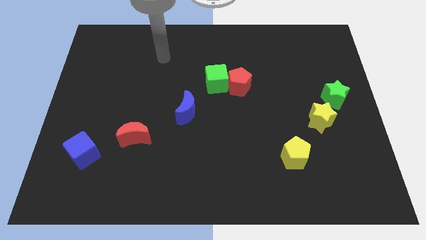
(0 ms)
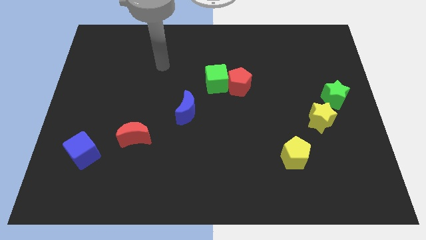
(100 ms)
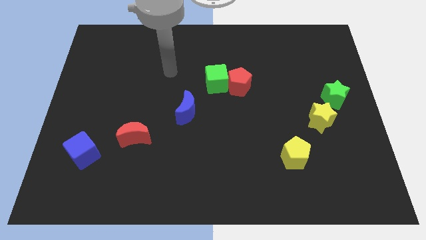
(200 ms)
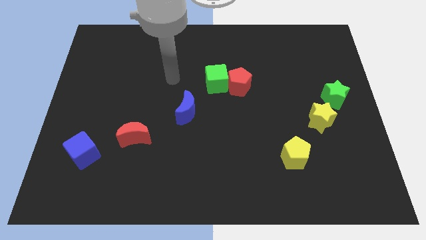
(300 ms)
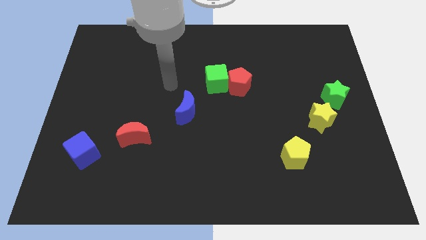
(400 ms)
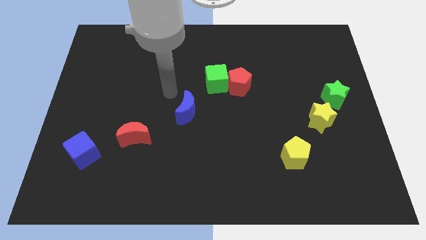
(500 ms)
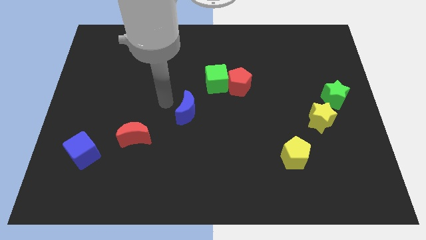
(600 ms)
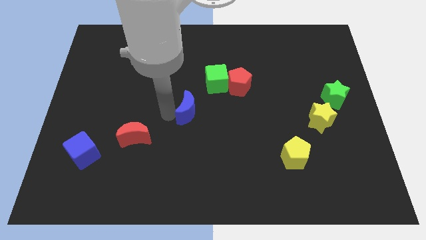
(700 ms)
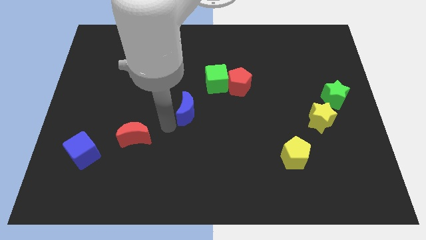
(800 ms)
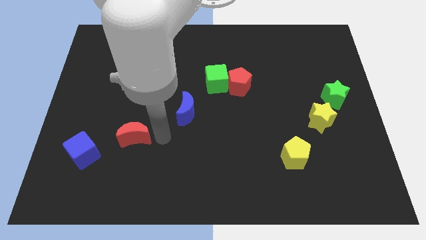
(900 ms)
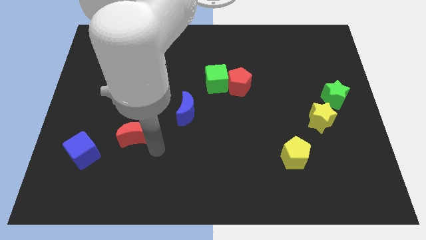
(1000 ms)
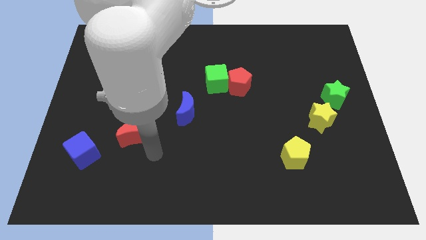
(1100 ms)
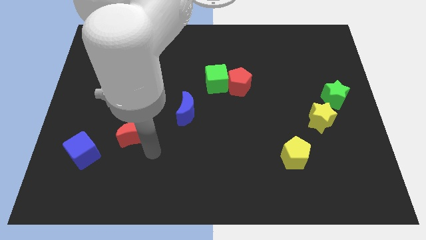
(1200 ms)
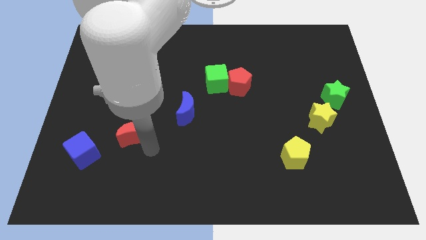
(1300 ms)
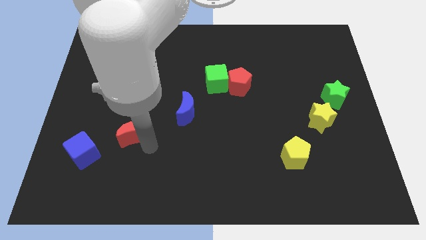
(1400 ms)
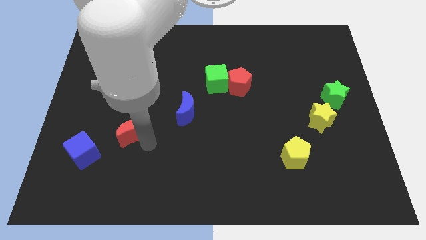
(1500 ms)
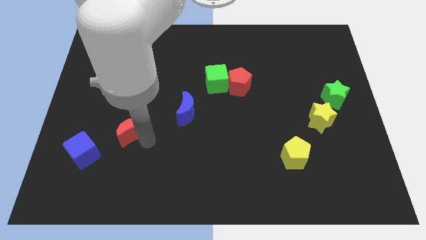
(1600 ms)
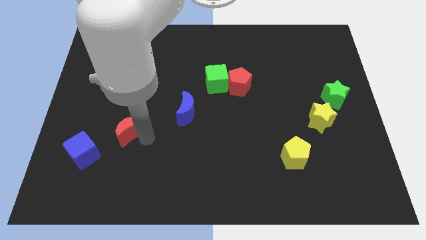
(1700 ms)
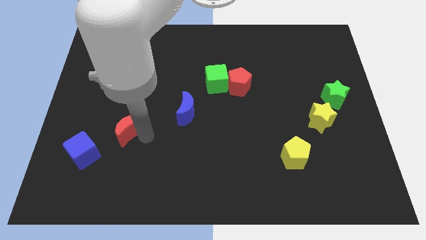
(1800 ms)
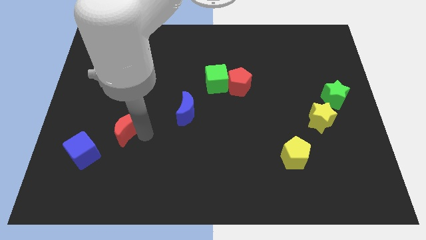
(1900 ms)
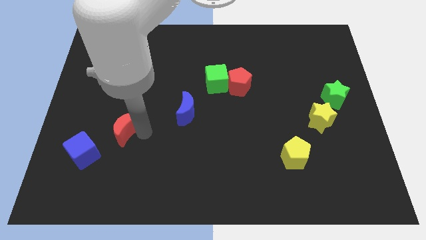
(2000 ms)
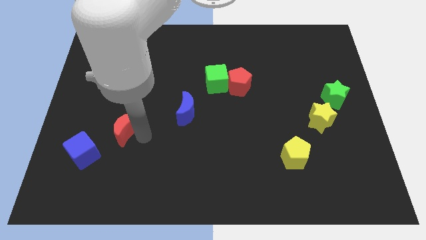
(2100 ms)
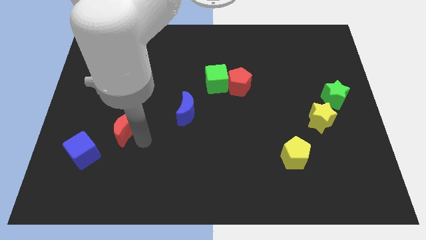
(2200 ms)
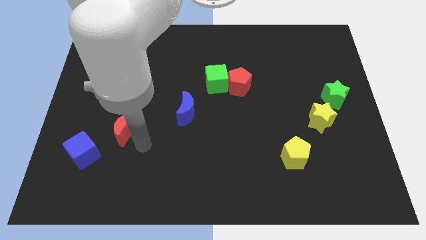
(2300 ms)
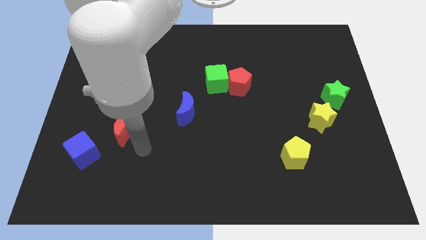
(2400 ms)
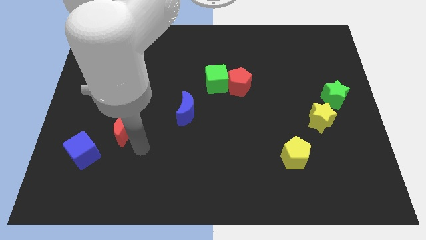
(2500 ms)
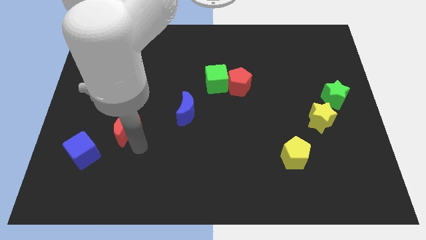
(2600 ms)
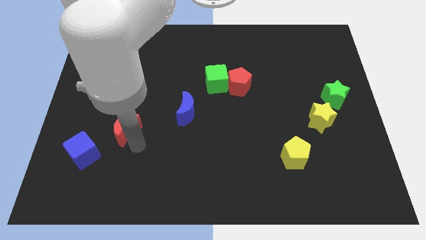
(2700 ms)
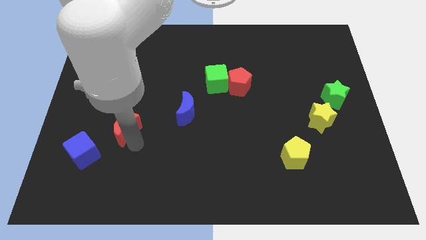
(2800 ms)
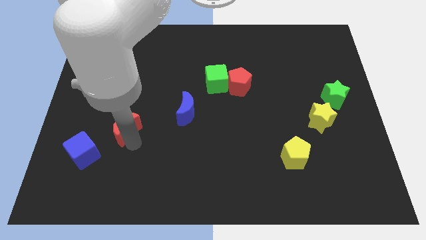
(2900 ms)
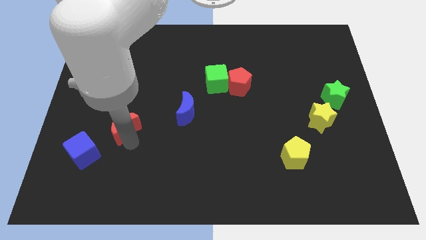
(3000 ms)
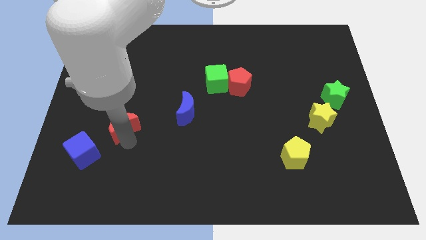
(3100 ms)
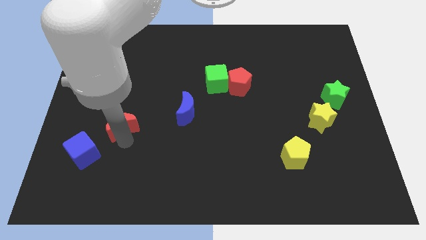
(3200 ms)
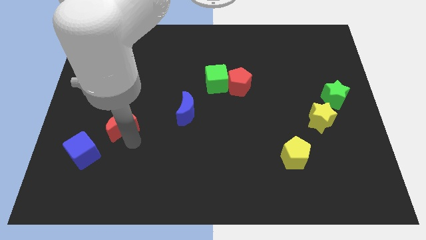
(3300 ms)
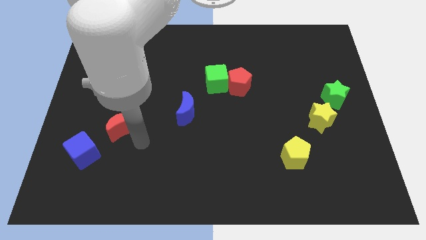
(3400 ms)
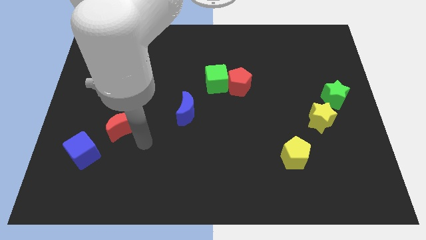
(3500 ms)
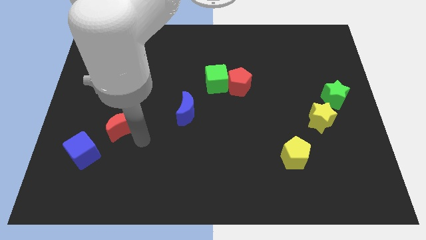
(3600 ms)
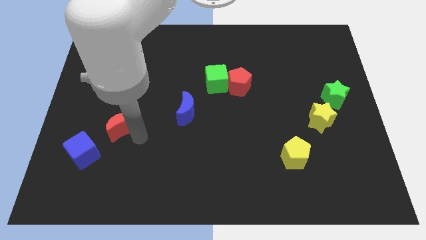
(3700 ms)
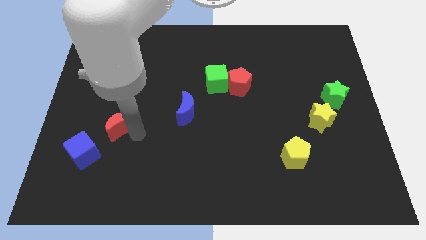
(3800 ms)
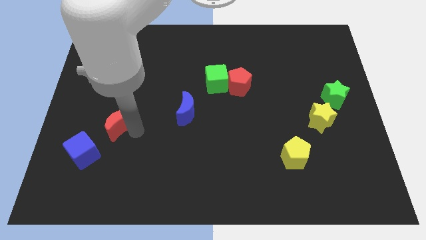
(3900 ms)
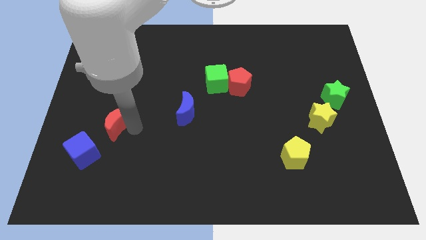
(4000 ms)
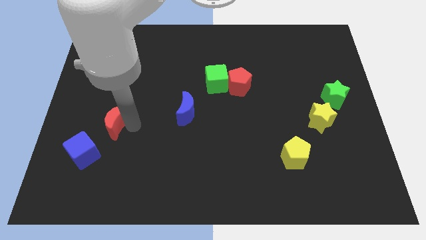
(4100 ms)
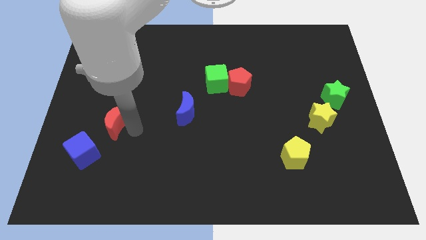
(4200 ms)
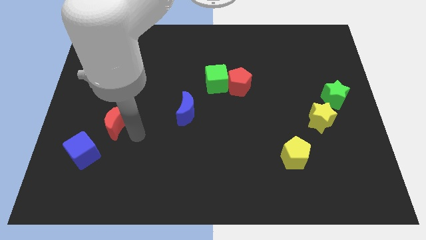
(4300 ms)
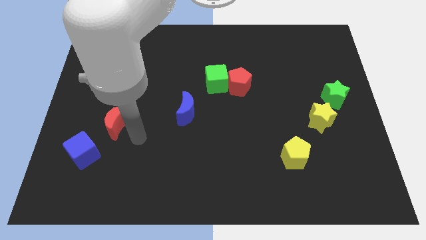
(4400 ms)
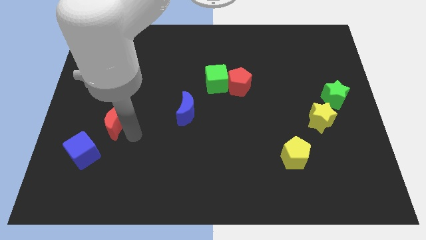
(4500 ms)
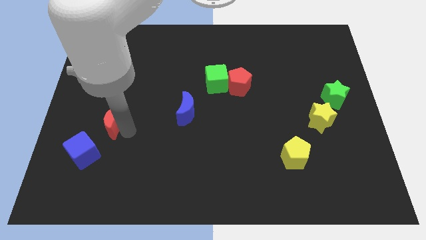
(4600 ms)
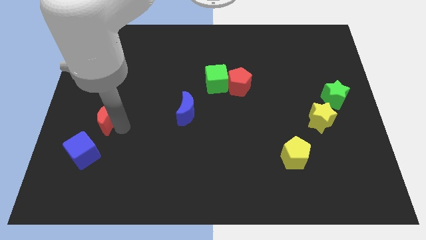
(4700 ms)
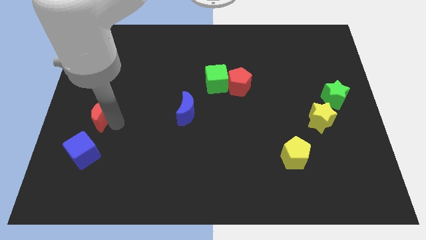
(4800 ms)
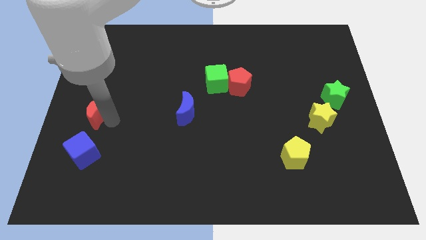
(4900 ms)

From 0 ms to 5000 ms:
move the red moon to the center left

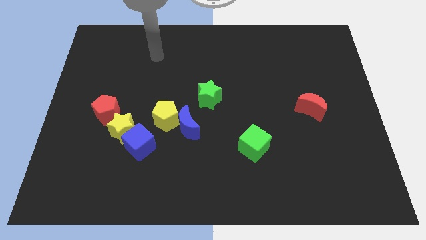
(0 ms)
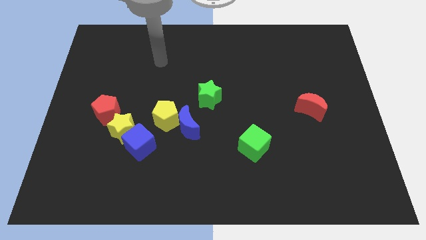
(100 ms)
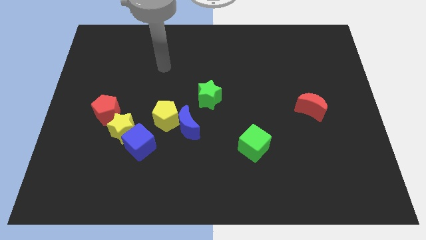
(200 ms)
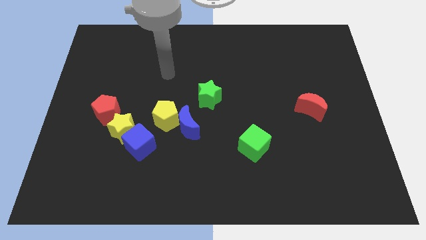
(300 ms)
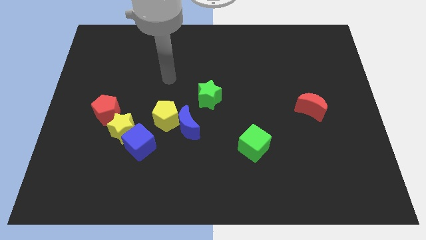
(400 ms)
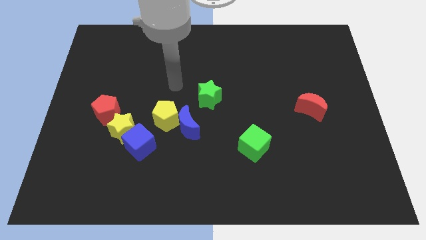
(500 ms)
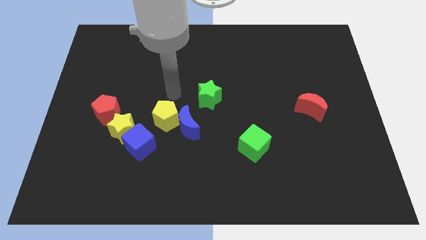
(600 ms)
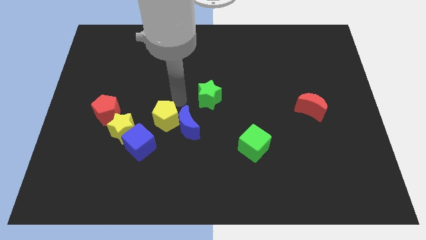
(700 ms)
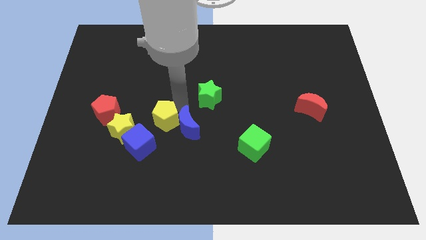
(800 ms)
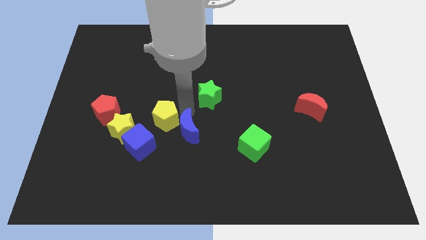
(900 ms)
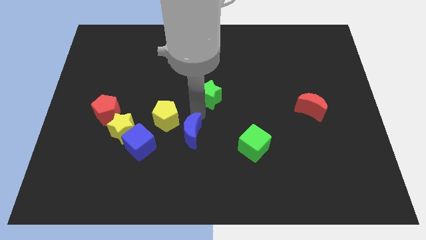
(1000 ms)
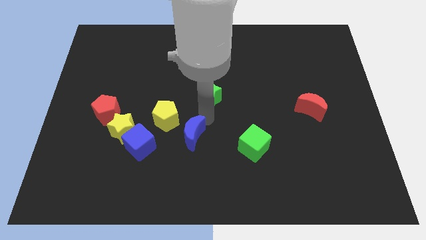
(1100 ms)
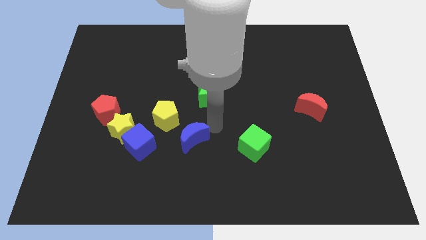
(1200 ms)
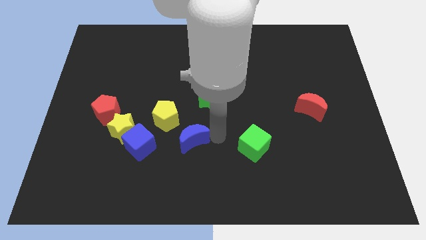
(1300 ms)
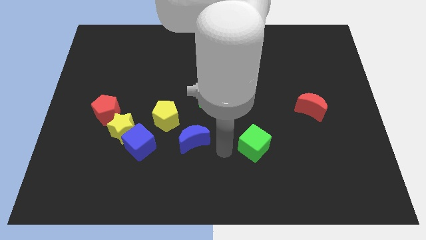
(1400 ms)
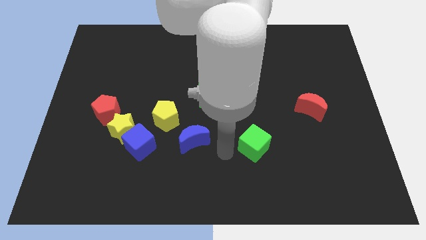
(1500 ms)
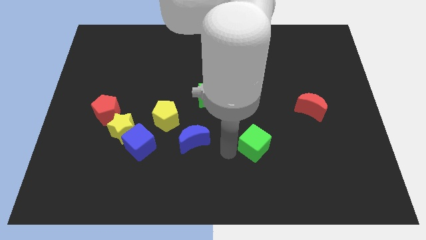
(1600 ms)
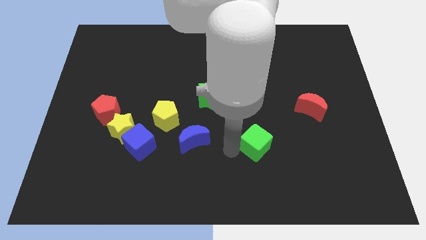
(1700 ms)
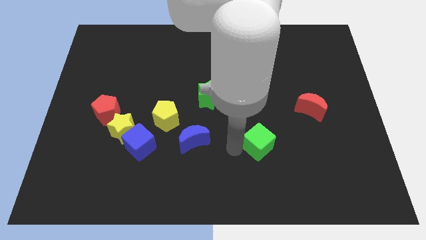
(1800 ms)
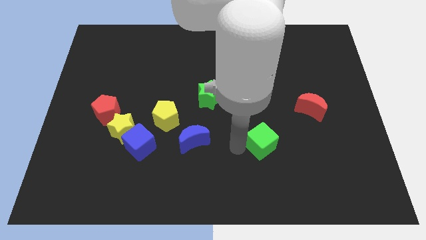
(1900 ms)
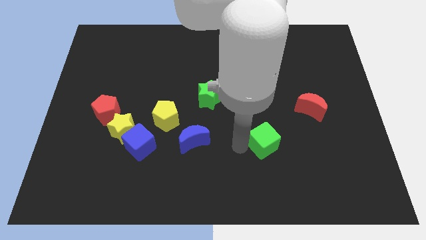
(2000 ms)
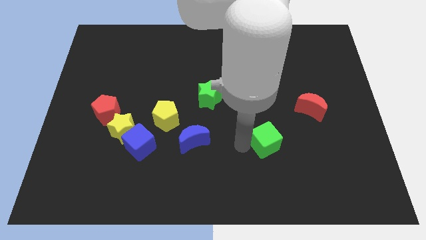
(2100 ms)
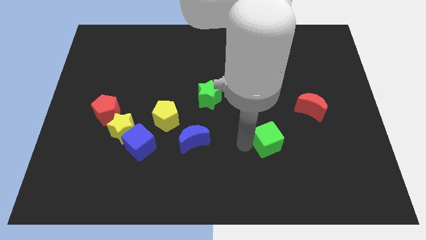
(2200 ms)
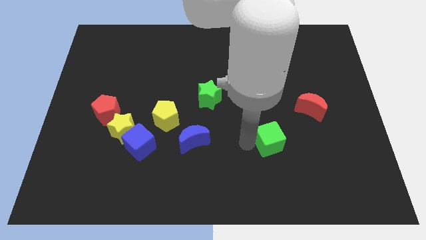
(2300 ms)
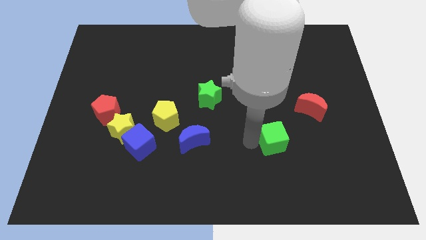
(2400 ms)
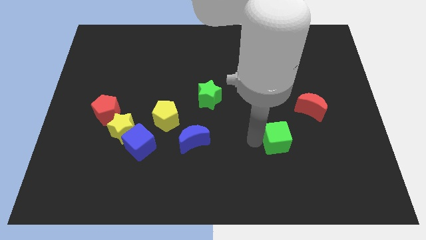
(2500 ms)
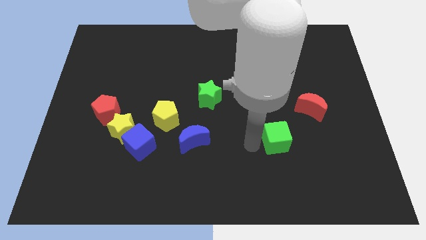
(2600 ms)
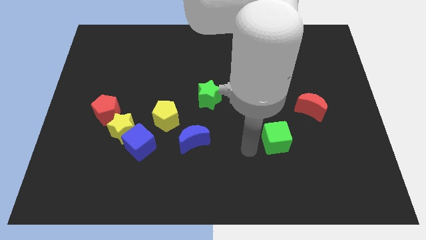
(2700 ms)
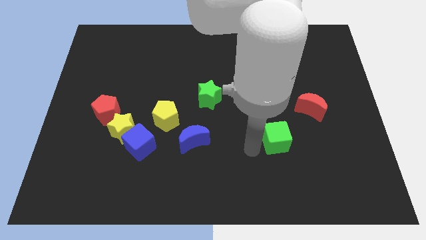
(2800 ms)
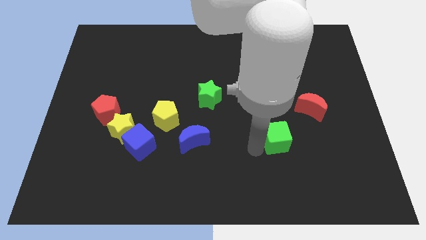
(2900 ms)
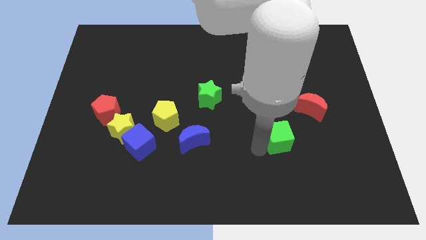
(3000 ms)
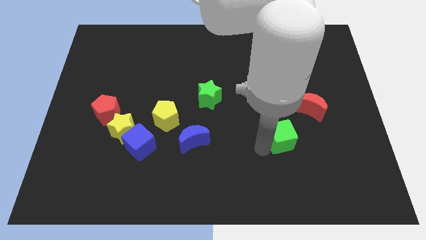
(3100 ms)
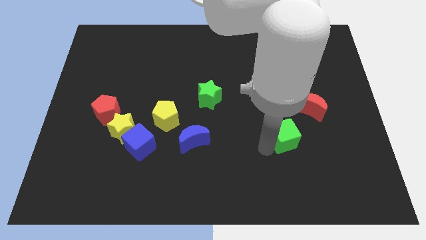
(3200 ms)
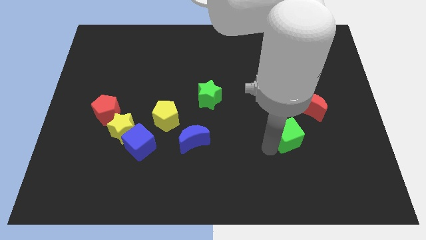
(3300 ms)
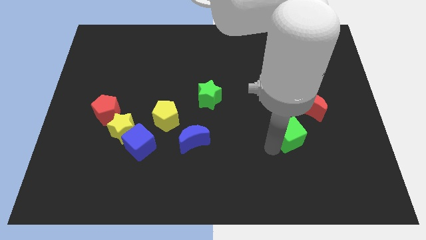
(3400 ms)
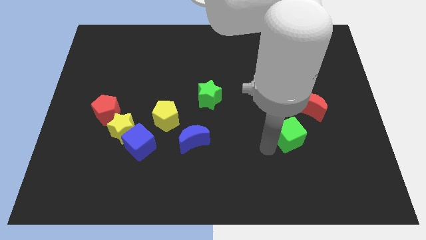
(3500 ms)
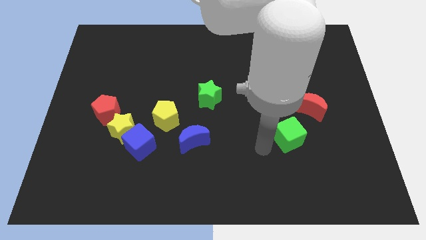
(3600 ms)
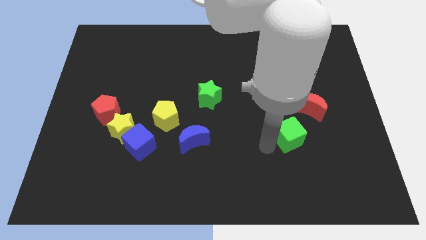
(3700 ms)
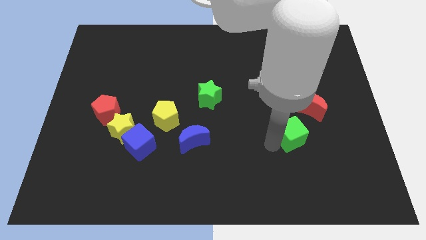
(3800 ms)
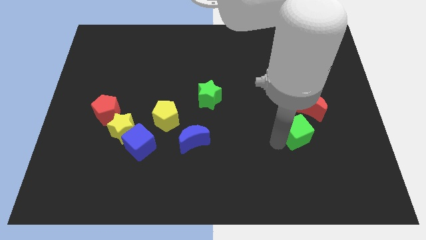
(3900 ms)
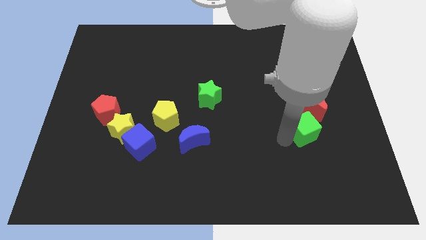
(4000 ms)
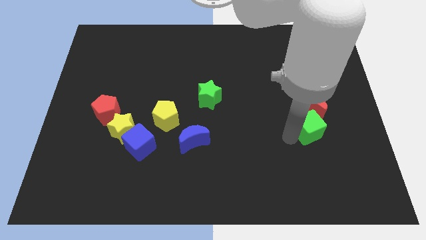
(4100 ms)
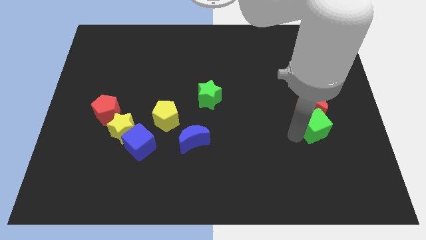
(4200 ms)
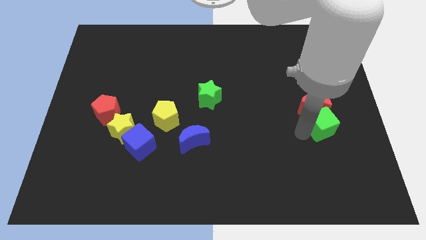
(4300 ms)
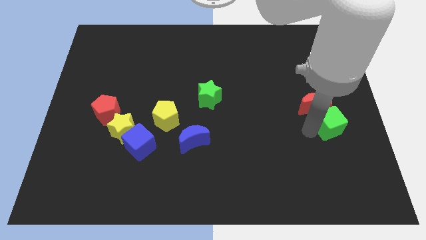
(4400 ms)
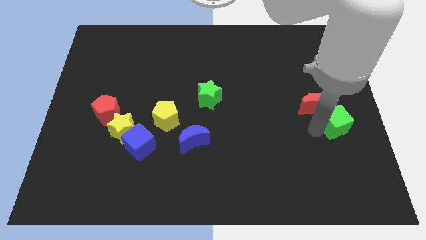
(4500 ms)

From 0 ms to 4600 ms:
move the green cube to the right side
